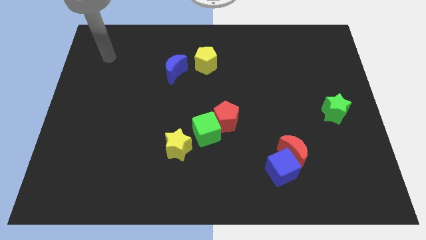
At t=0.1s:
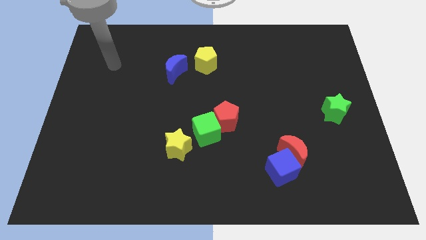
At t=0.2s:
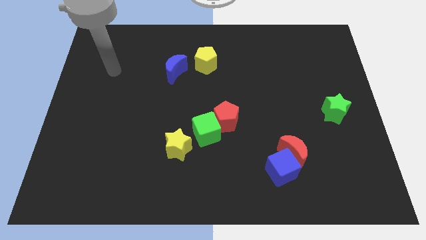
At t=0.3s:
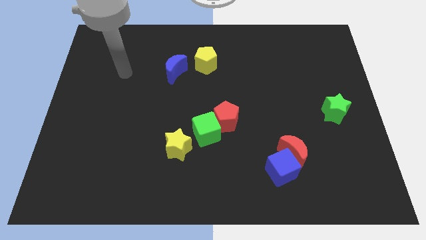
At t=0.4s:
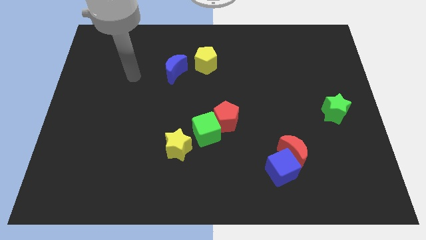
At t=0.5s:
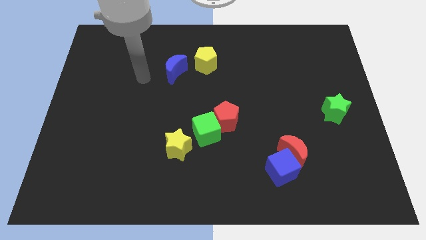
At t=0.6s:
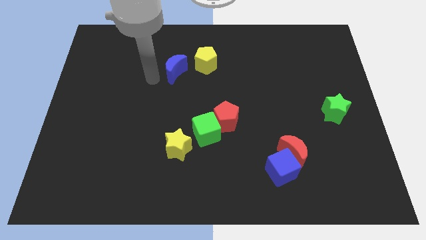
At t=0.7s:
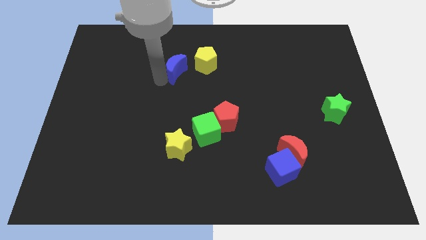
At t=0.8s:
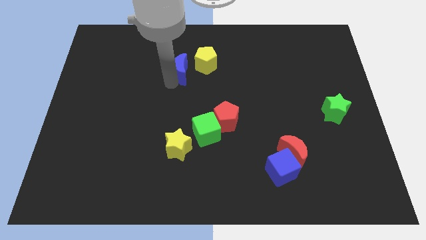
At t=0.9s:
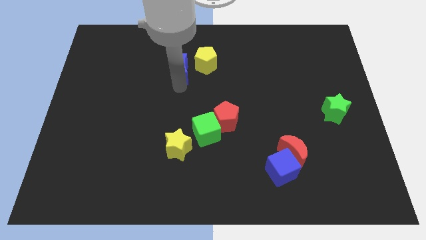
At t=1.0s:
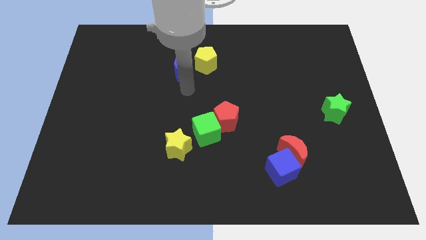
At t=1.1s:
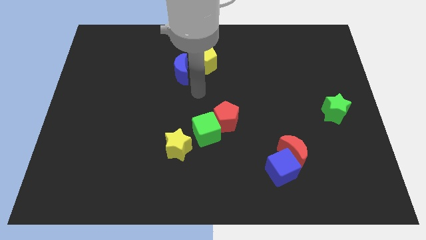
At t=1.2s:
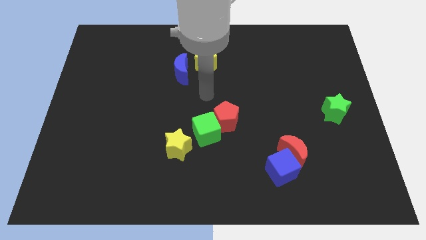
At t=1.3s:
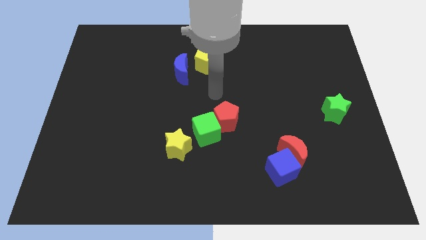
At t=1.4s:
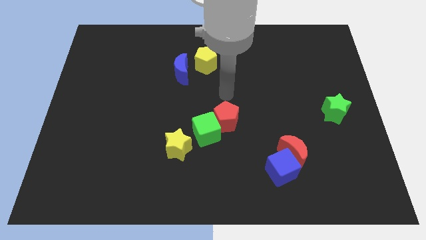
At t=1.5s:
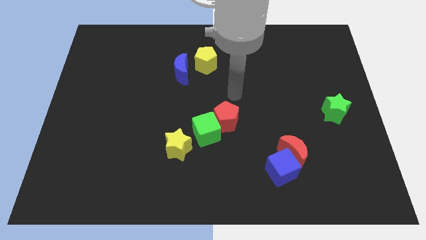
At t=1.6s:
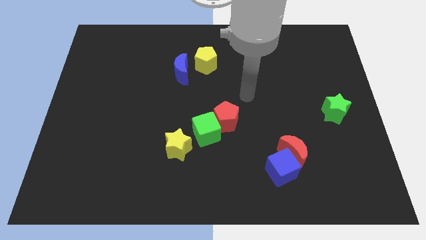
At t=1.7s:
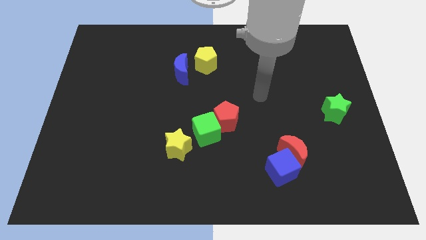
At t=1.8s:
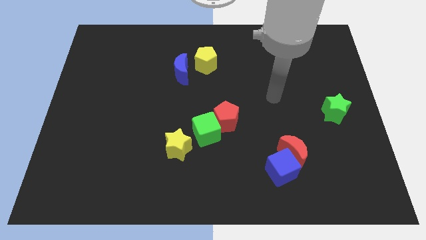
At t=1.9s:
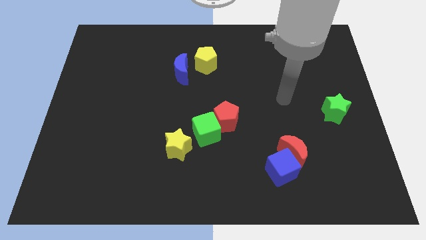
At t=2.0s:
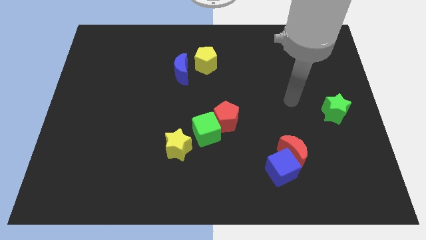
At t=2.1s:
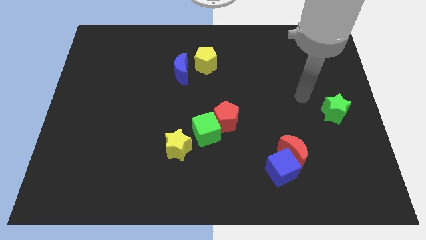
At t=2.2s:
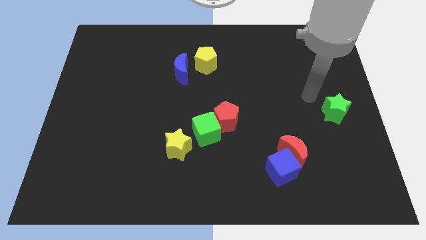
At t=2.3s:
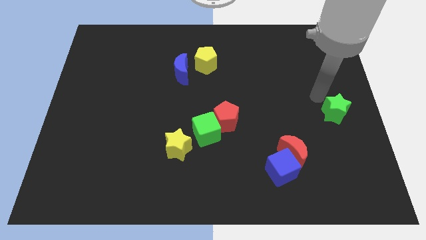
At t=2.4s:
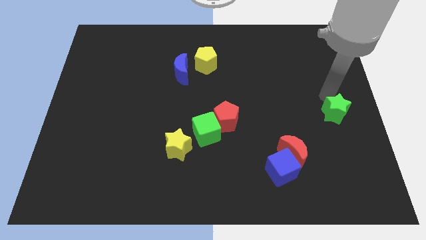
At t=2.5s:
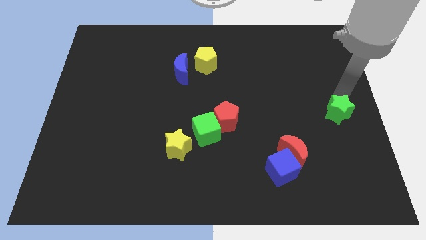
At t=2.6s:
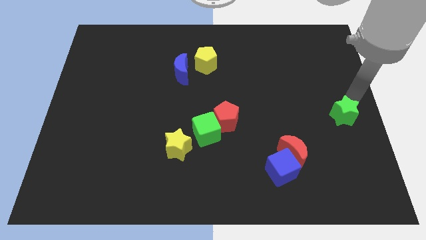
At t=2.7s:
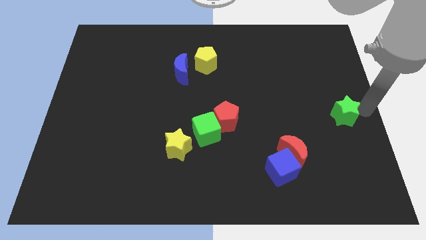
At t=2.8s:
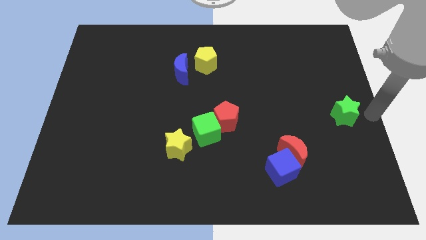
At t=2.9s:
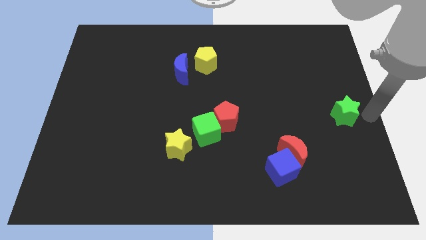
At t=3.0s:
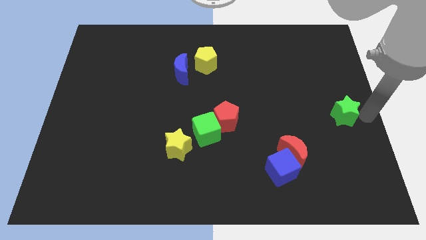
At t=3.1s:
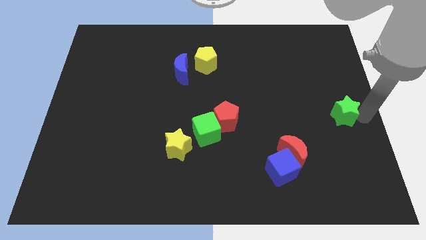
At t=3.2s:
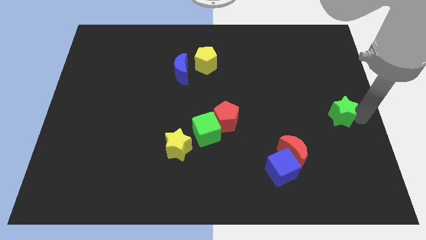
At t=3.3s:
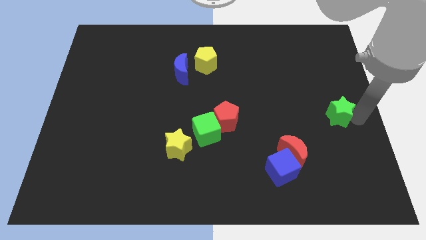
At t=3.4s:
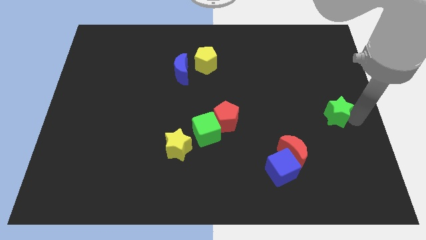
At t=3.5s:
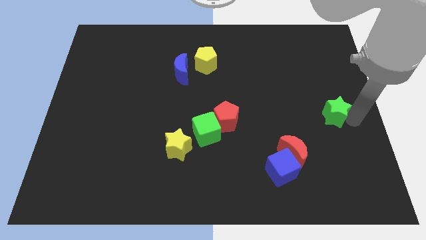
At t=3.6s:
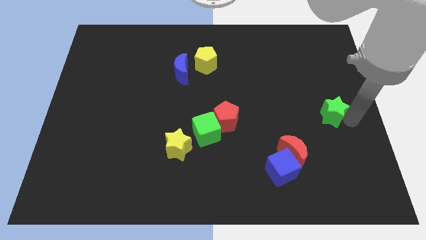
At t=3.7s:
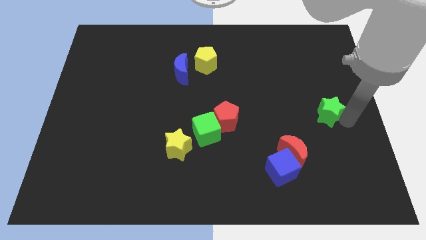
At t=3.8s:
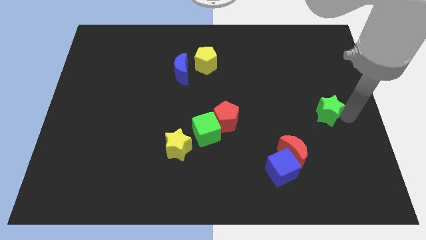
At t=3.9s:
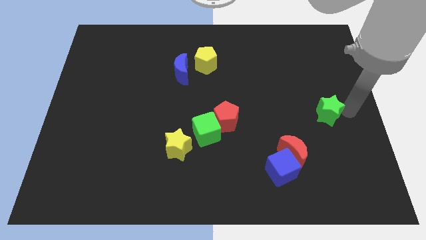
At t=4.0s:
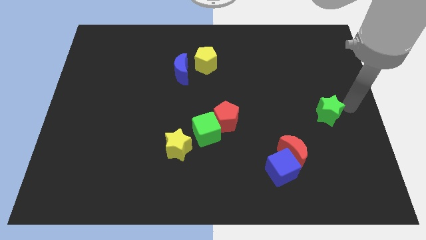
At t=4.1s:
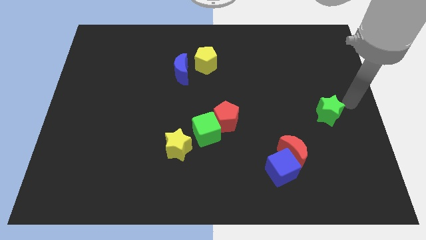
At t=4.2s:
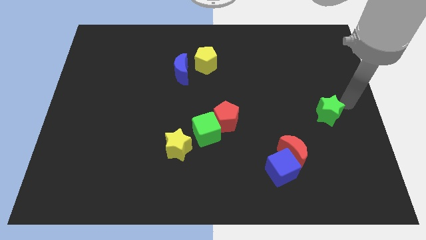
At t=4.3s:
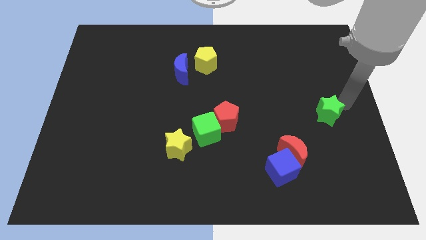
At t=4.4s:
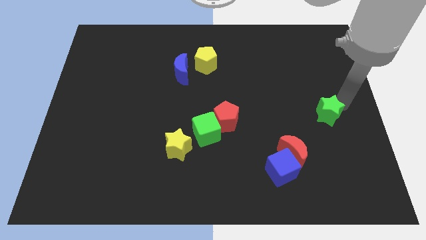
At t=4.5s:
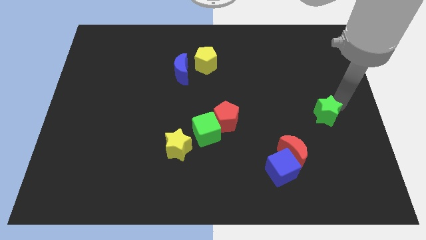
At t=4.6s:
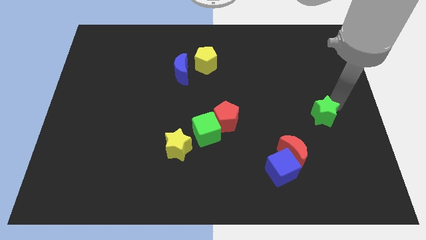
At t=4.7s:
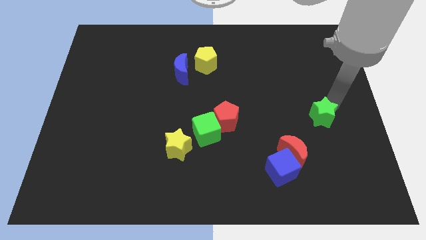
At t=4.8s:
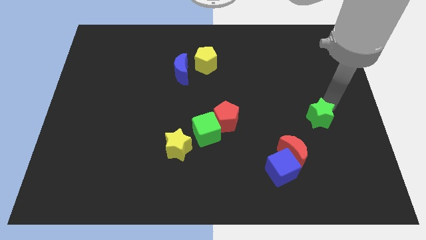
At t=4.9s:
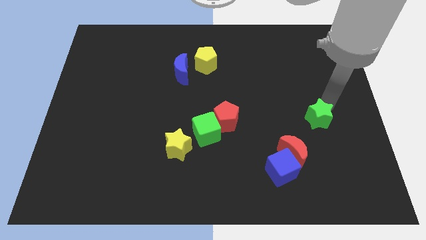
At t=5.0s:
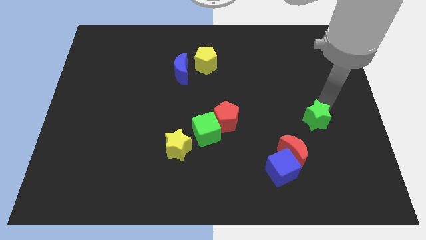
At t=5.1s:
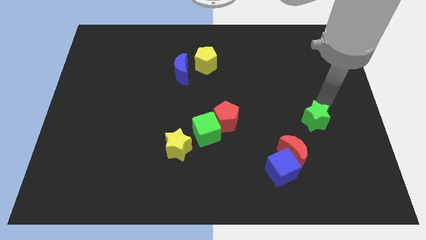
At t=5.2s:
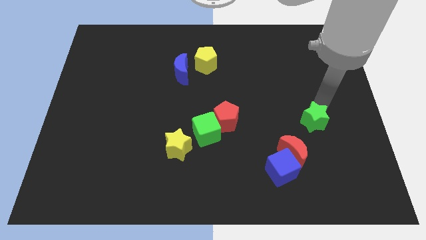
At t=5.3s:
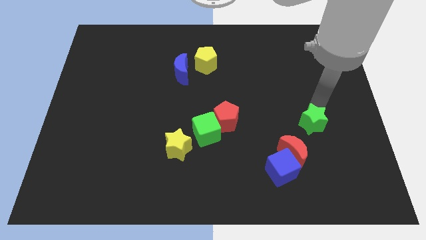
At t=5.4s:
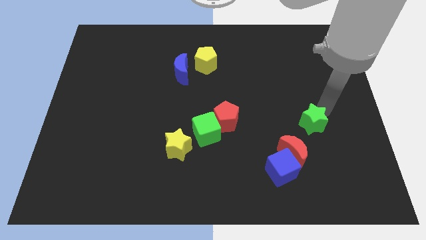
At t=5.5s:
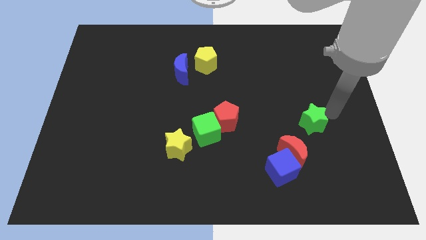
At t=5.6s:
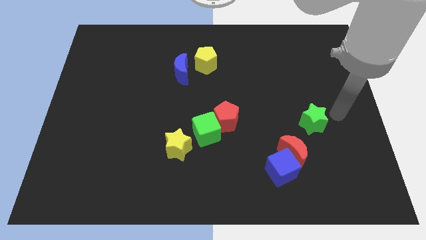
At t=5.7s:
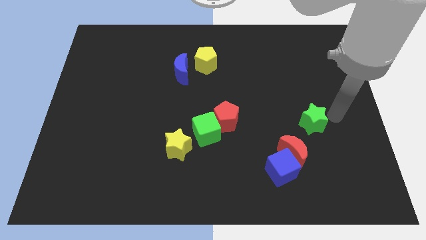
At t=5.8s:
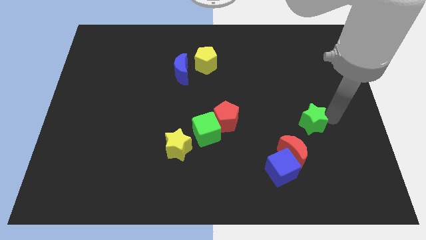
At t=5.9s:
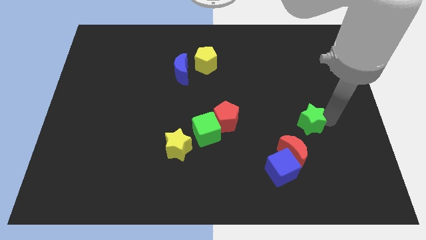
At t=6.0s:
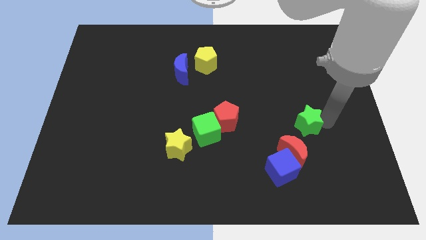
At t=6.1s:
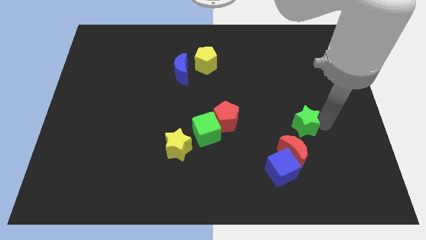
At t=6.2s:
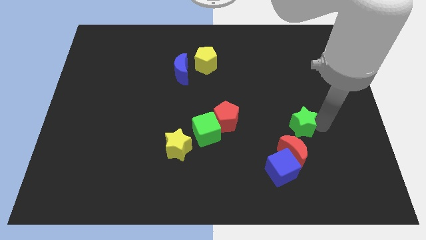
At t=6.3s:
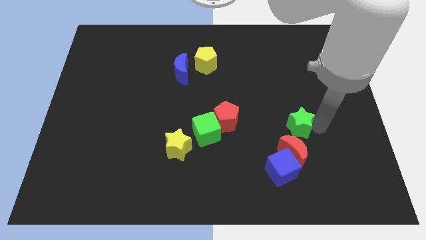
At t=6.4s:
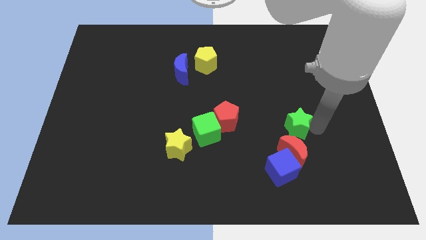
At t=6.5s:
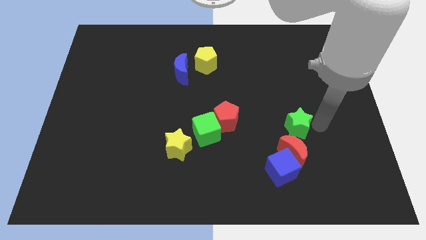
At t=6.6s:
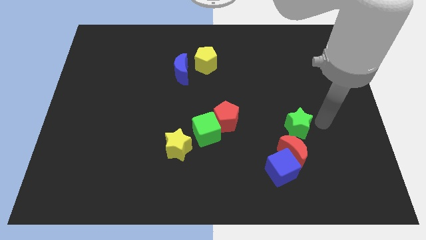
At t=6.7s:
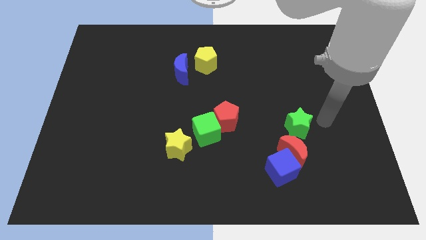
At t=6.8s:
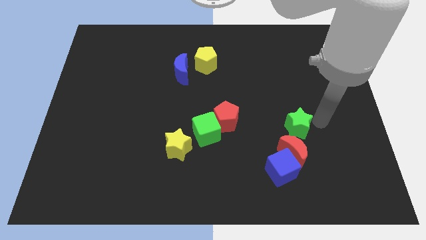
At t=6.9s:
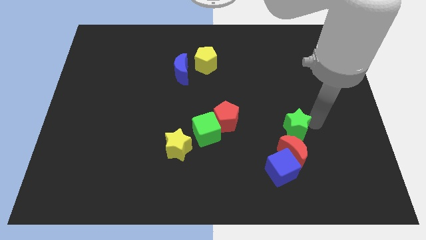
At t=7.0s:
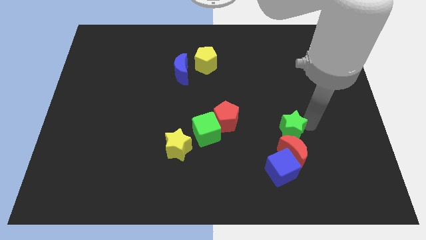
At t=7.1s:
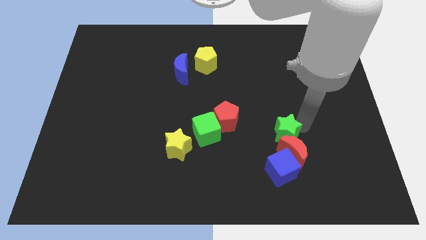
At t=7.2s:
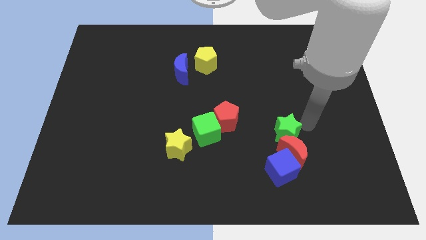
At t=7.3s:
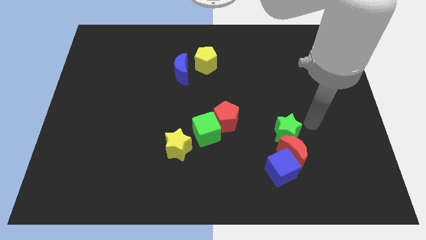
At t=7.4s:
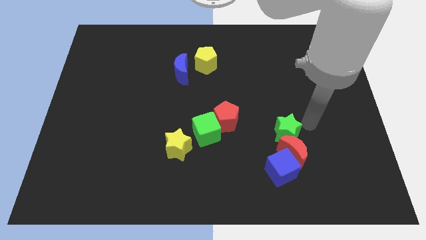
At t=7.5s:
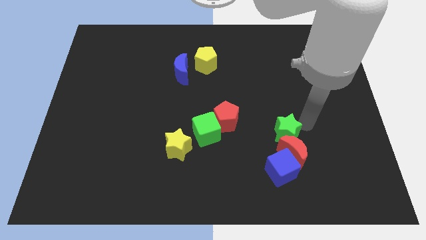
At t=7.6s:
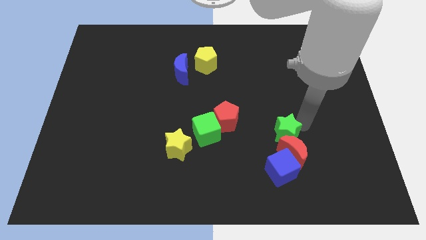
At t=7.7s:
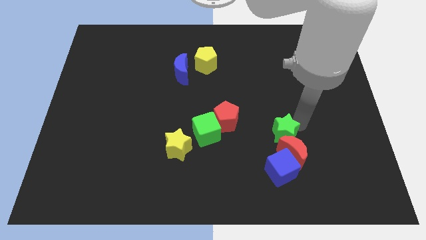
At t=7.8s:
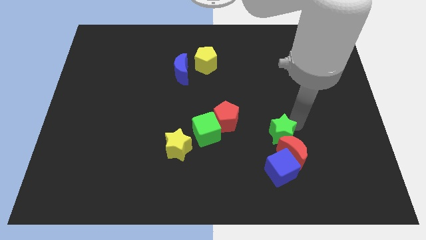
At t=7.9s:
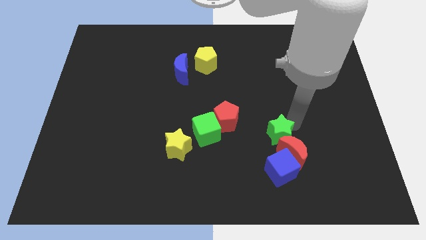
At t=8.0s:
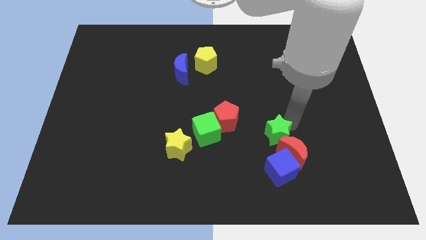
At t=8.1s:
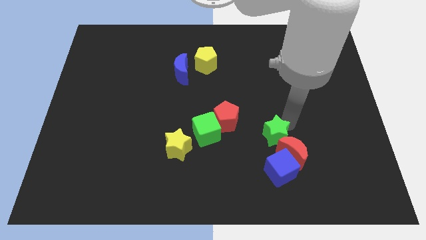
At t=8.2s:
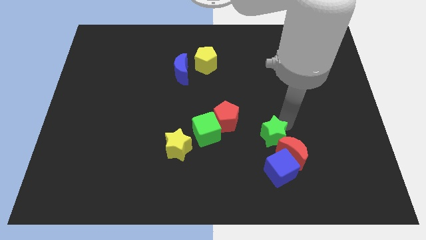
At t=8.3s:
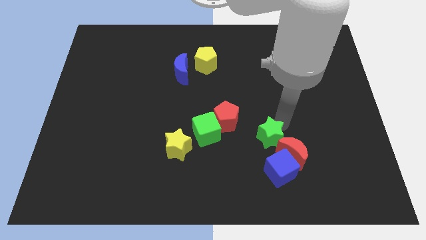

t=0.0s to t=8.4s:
put the green star to the left of the red moon

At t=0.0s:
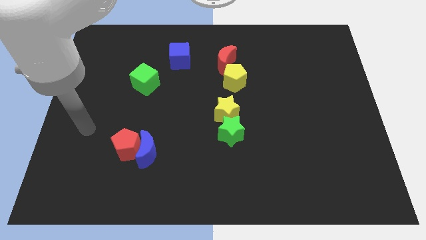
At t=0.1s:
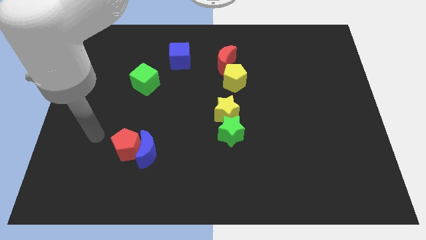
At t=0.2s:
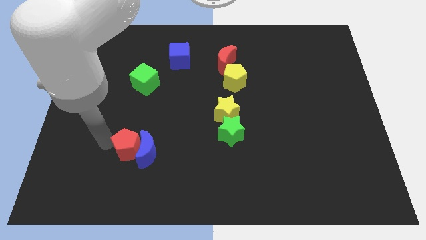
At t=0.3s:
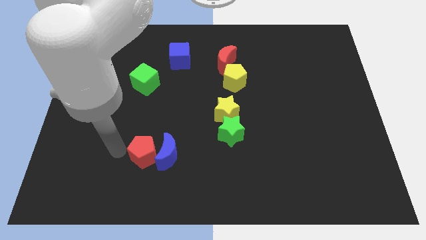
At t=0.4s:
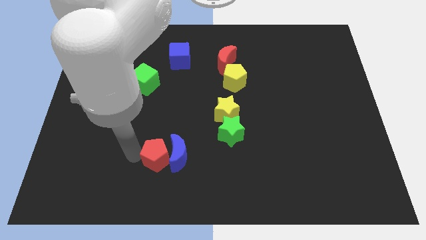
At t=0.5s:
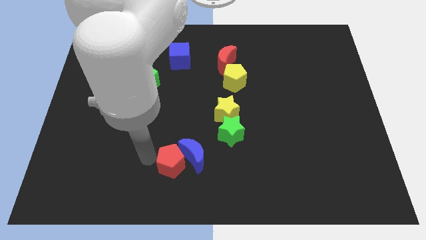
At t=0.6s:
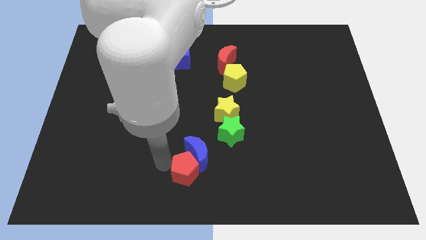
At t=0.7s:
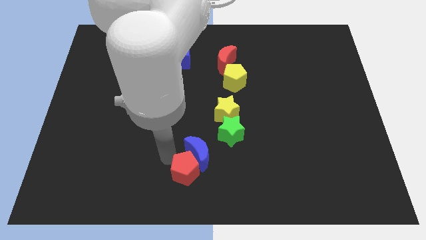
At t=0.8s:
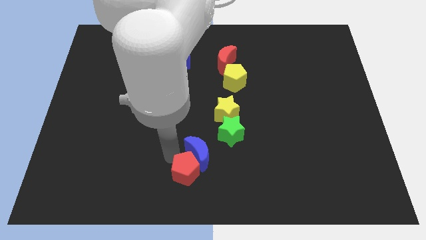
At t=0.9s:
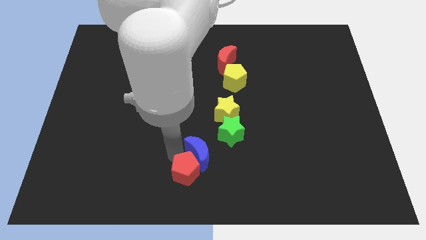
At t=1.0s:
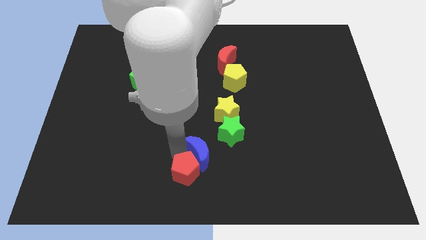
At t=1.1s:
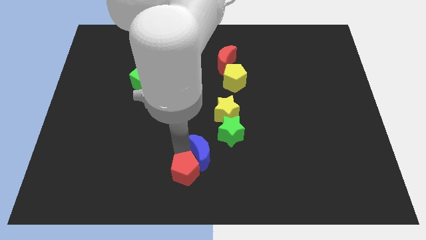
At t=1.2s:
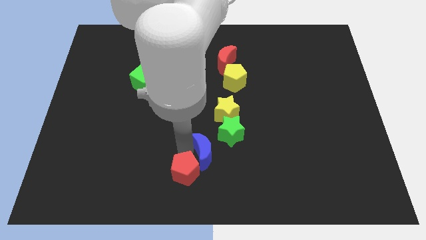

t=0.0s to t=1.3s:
put the blue moon below the yellow star
